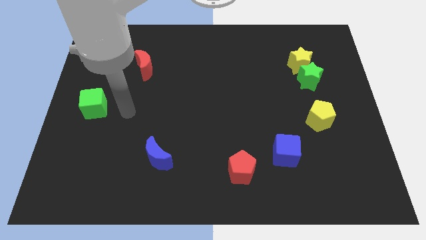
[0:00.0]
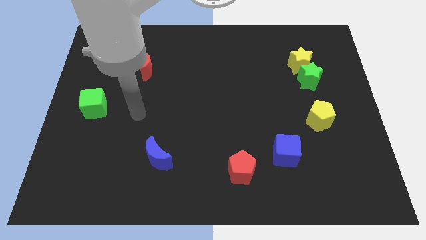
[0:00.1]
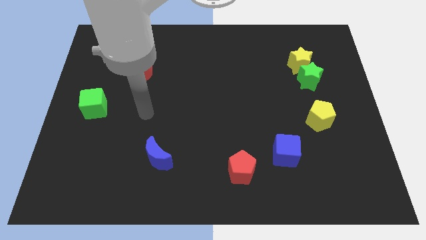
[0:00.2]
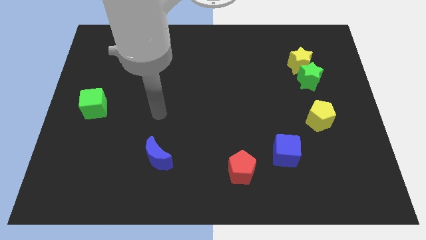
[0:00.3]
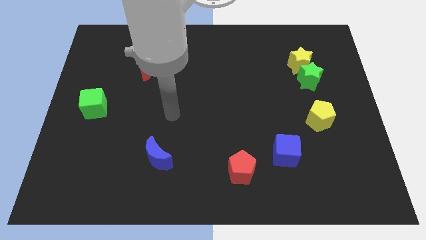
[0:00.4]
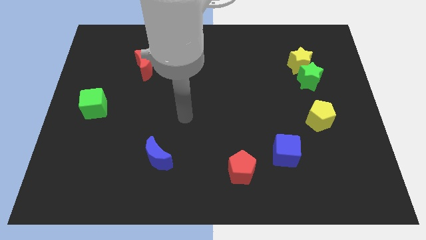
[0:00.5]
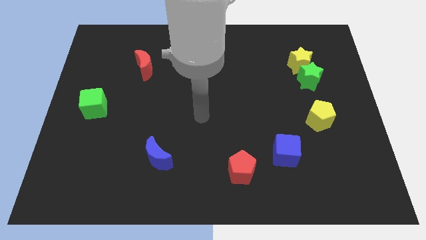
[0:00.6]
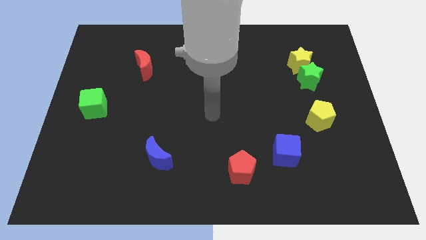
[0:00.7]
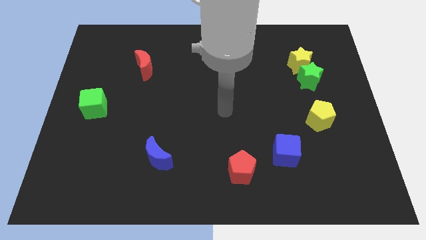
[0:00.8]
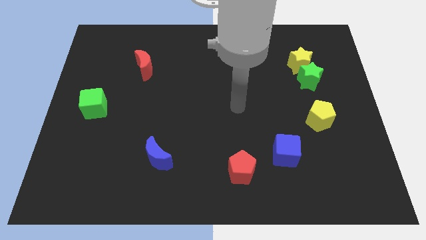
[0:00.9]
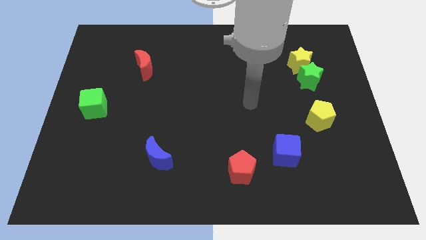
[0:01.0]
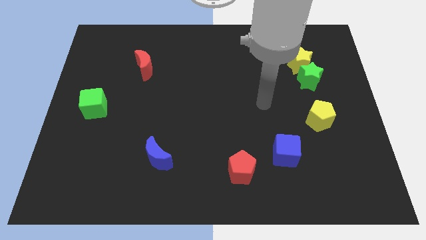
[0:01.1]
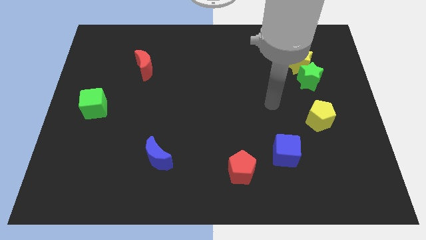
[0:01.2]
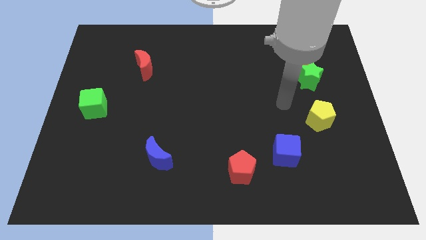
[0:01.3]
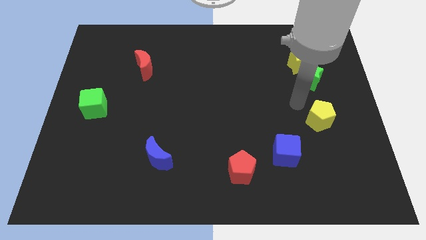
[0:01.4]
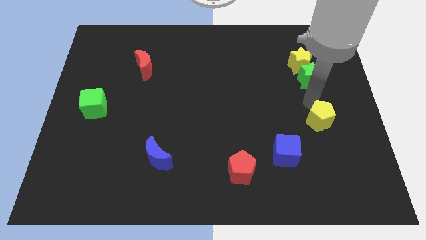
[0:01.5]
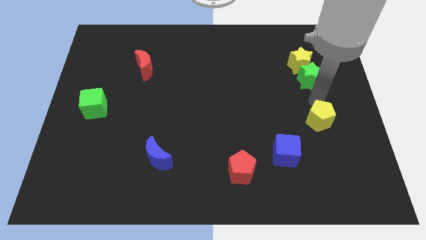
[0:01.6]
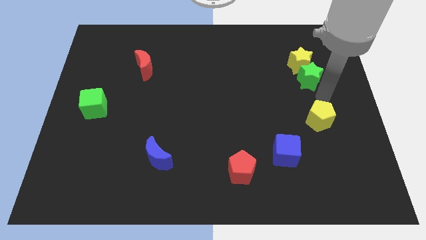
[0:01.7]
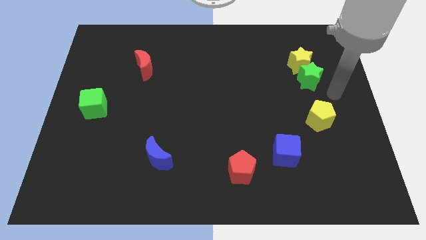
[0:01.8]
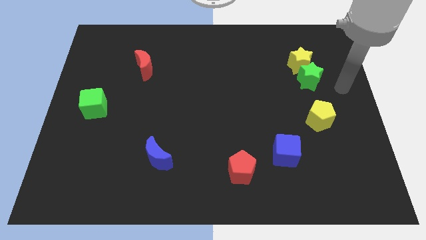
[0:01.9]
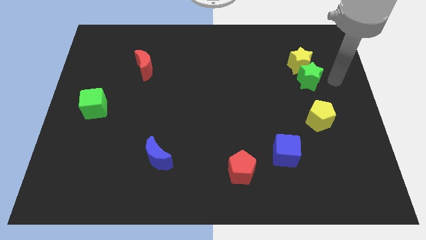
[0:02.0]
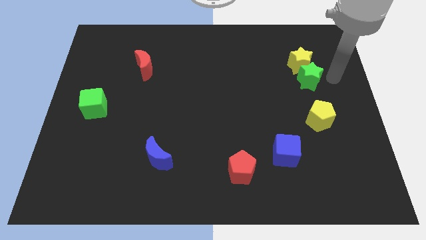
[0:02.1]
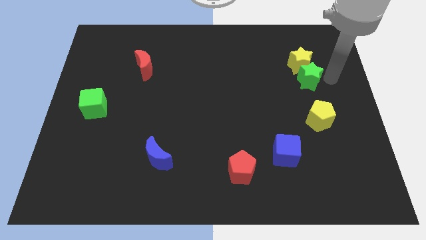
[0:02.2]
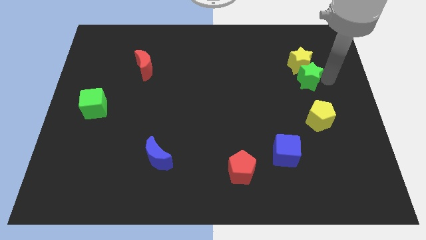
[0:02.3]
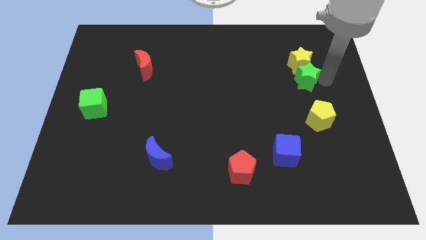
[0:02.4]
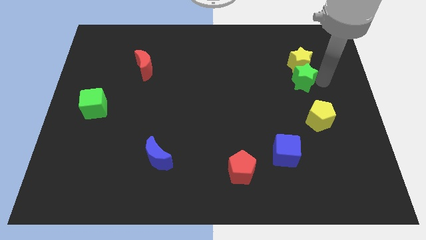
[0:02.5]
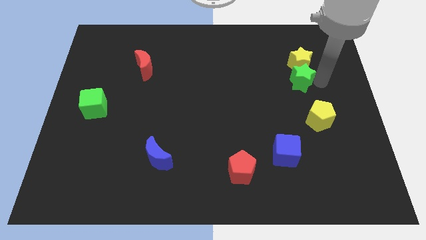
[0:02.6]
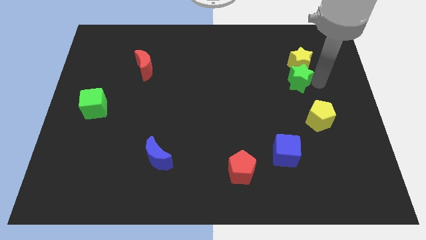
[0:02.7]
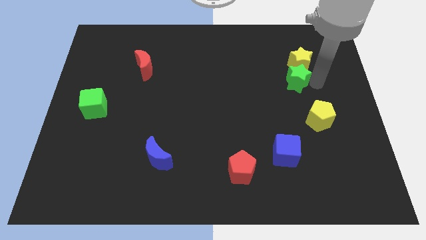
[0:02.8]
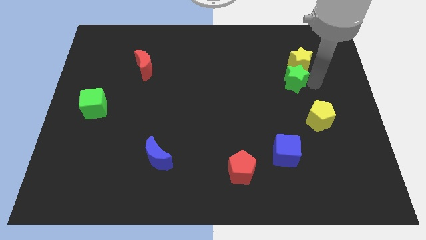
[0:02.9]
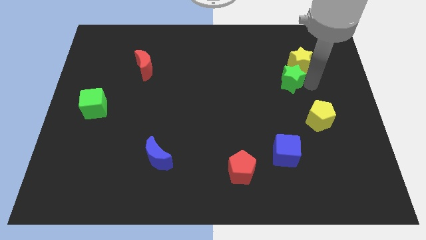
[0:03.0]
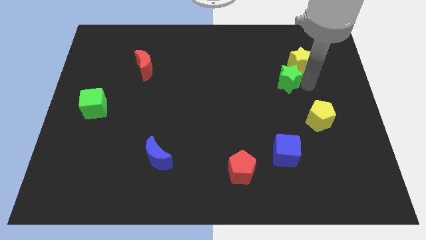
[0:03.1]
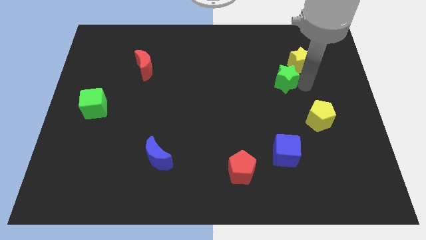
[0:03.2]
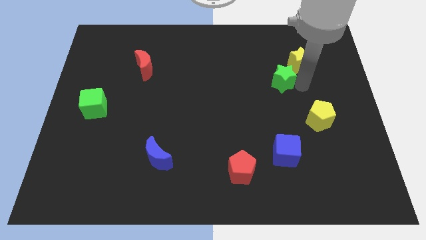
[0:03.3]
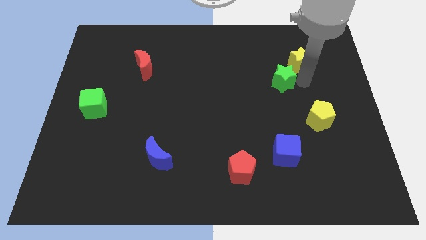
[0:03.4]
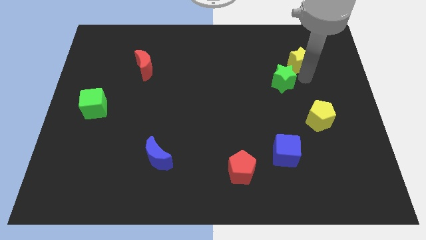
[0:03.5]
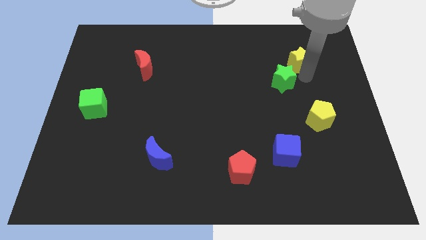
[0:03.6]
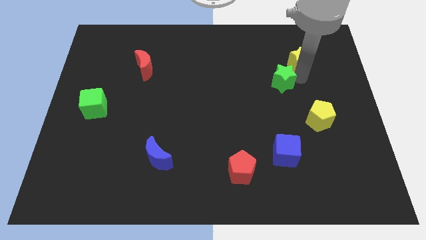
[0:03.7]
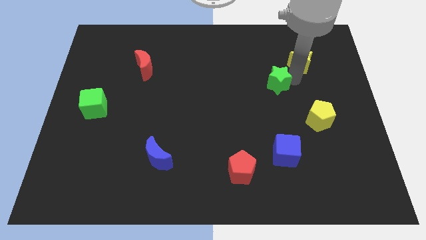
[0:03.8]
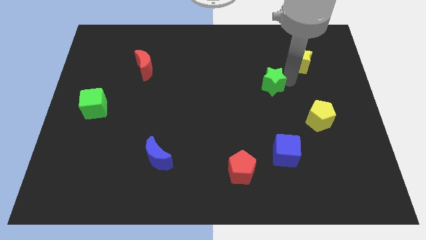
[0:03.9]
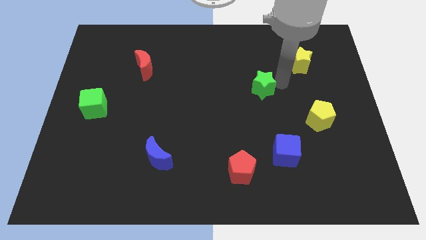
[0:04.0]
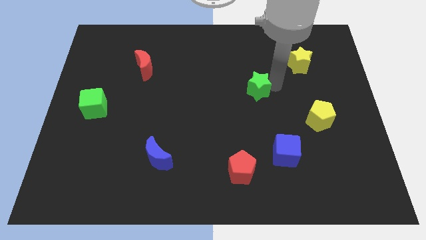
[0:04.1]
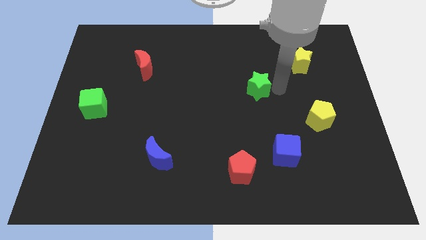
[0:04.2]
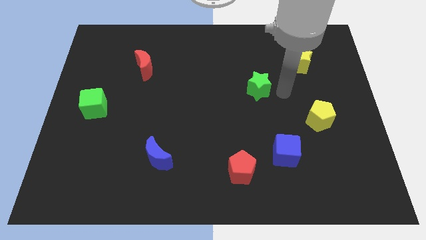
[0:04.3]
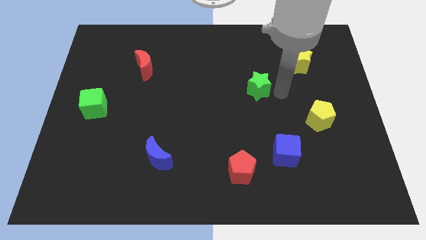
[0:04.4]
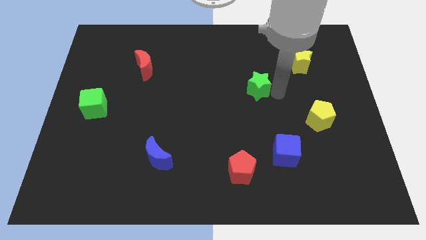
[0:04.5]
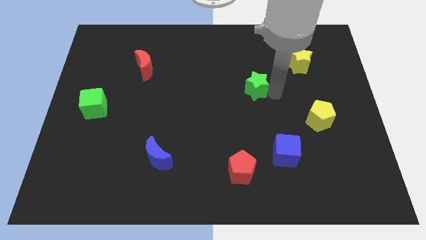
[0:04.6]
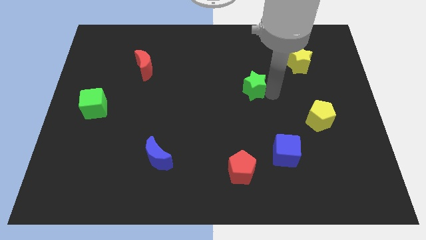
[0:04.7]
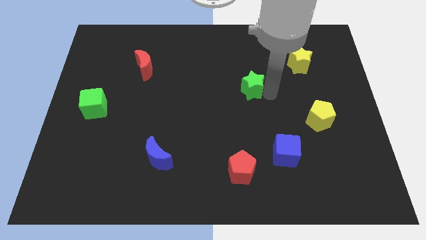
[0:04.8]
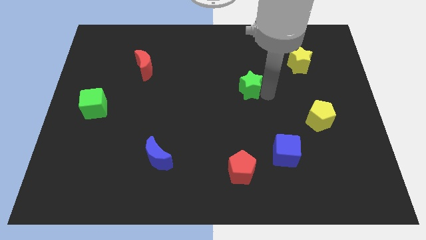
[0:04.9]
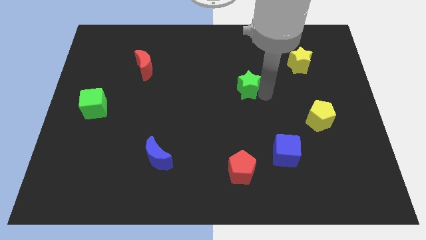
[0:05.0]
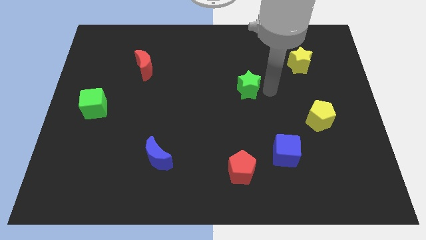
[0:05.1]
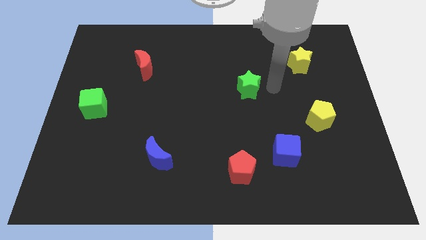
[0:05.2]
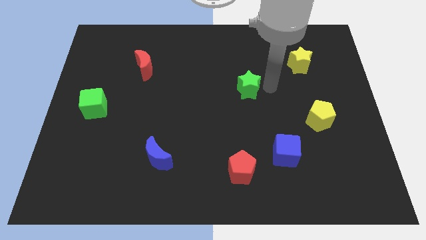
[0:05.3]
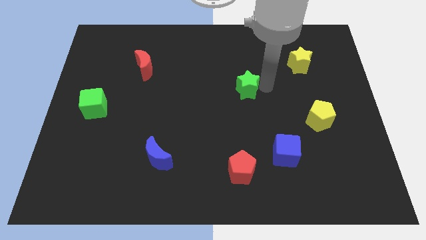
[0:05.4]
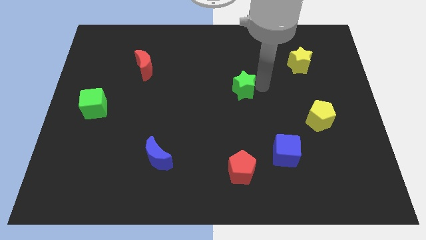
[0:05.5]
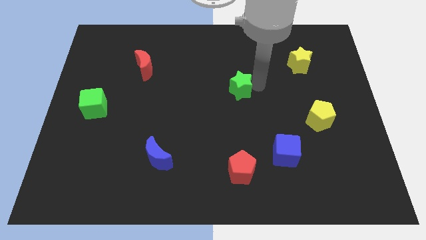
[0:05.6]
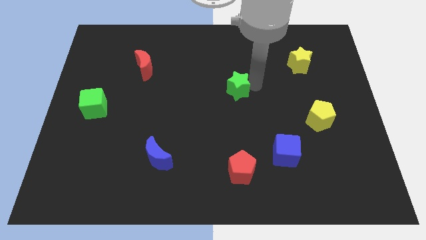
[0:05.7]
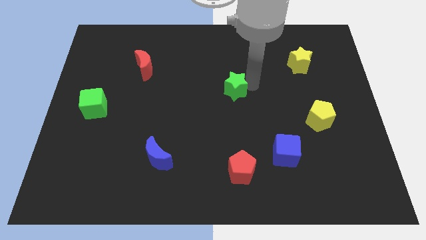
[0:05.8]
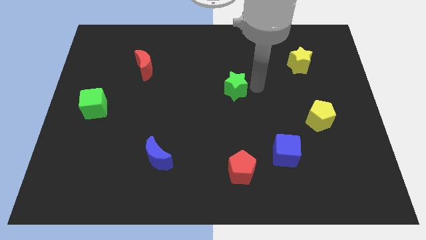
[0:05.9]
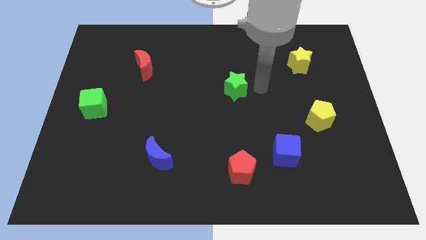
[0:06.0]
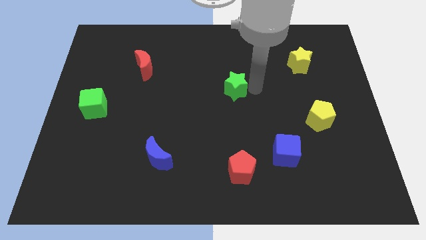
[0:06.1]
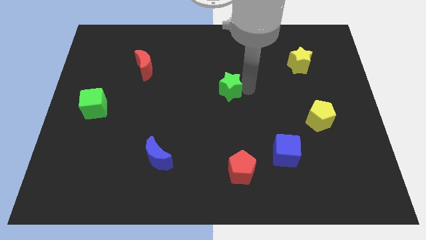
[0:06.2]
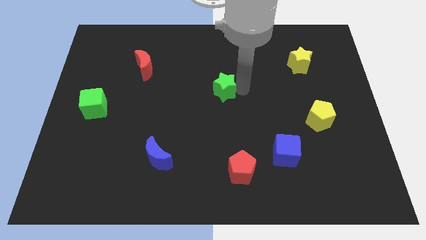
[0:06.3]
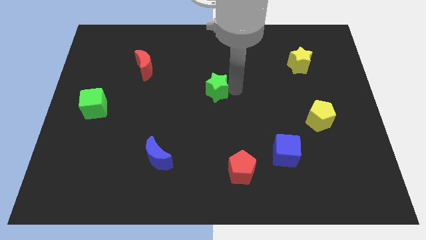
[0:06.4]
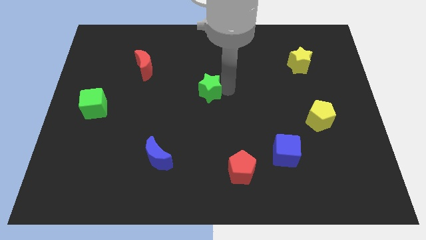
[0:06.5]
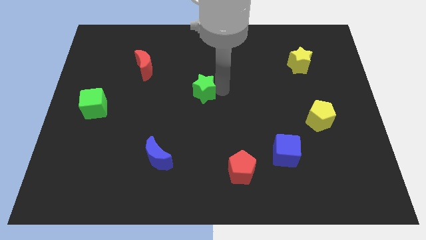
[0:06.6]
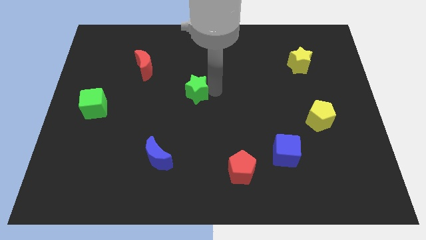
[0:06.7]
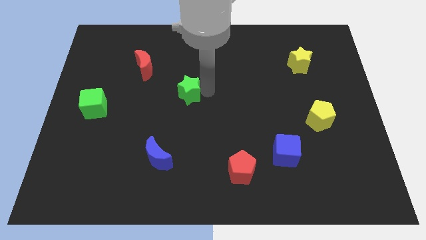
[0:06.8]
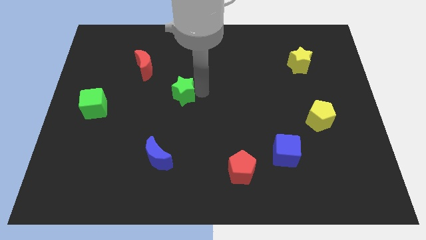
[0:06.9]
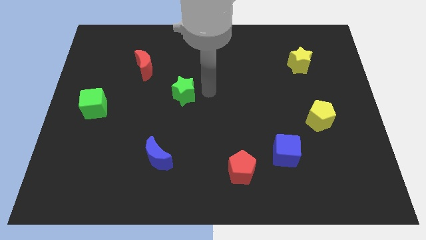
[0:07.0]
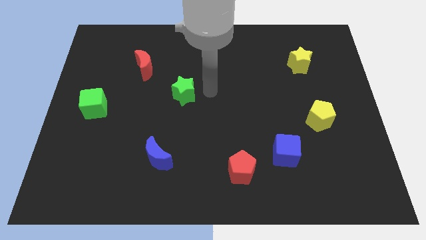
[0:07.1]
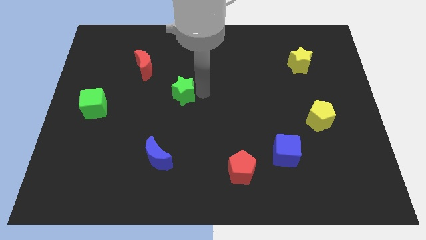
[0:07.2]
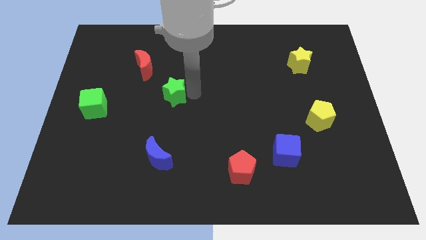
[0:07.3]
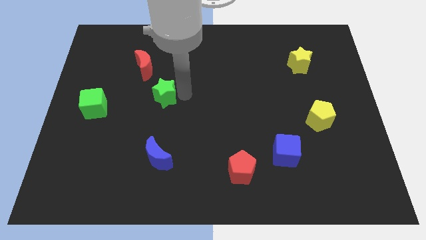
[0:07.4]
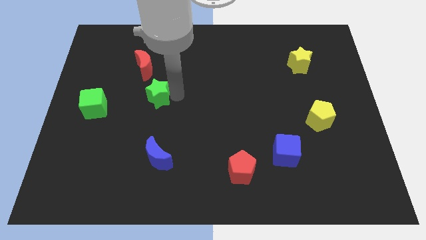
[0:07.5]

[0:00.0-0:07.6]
put the green star below the red moon
